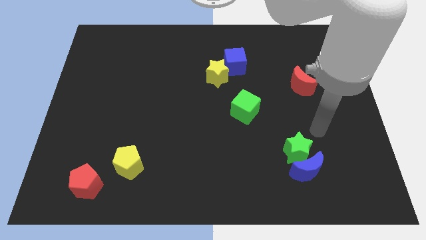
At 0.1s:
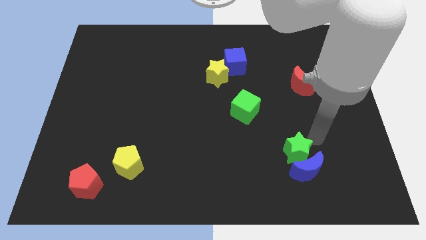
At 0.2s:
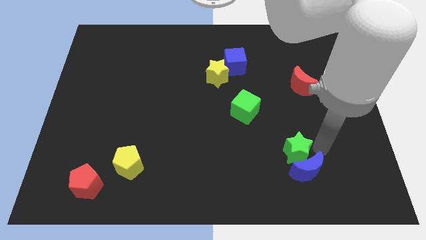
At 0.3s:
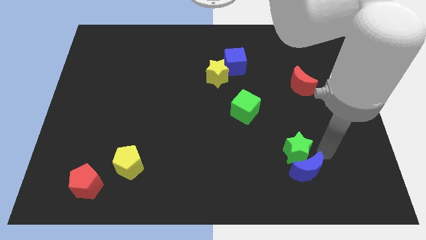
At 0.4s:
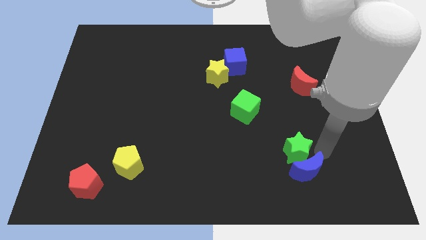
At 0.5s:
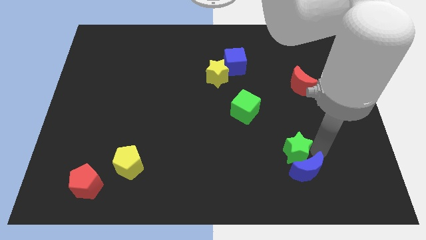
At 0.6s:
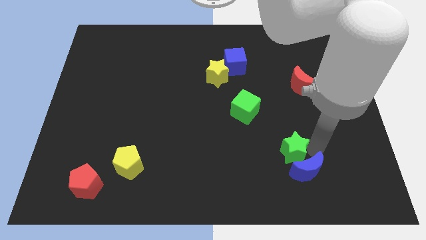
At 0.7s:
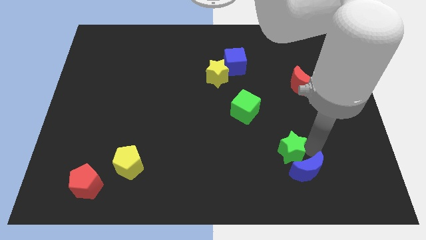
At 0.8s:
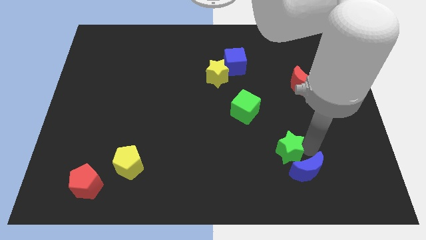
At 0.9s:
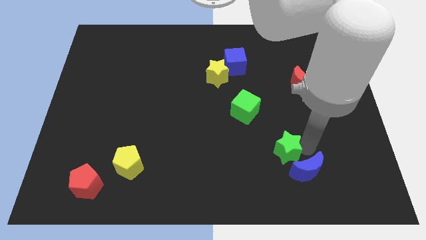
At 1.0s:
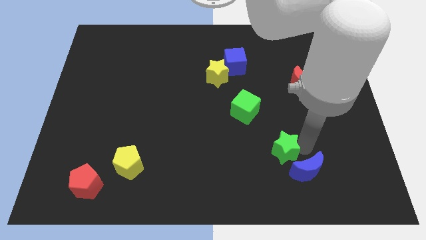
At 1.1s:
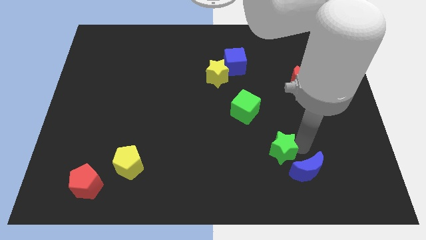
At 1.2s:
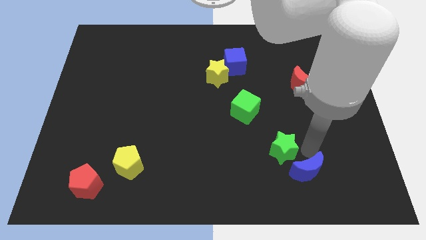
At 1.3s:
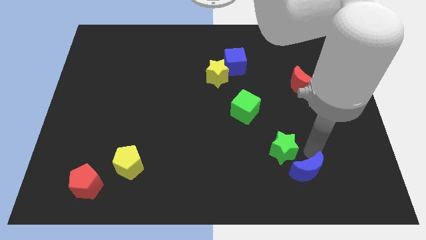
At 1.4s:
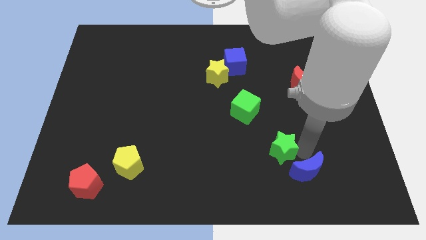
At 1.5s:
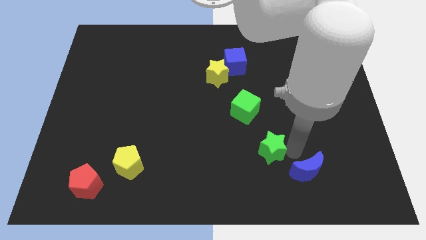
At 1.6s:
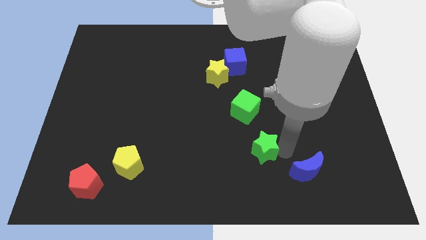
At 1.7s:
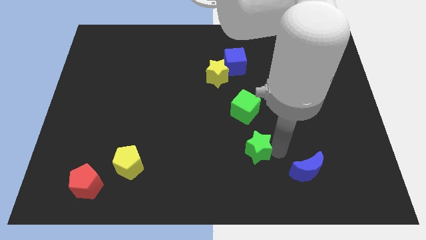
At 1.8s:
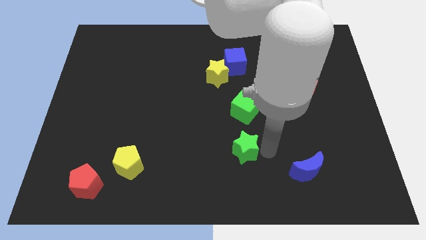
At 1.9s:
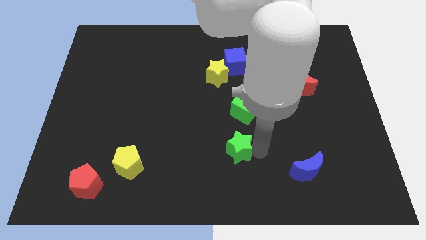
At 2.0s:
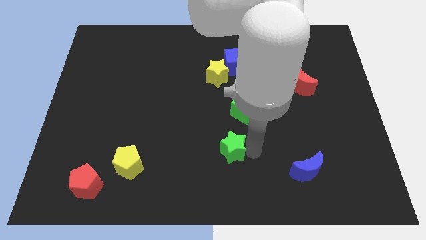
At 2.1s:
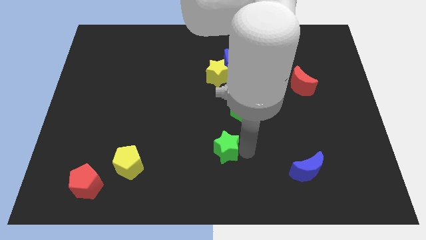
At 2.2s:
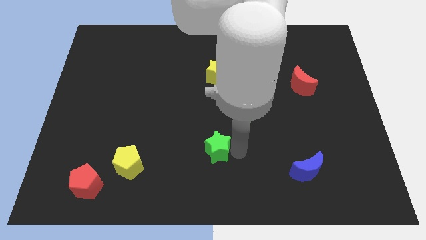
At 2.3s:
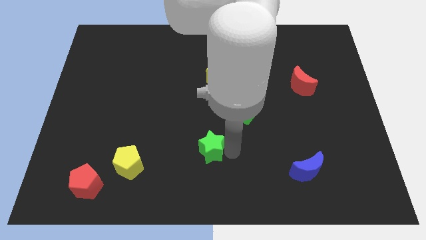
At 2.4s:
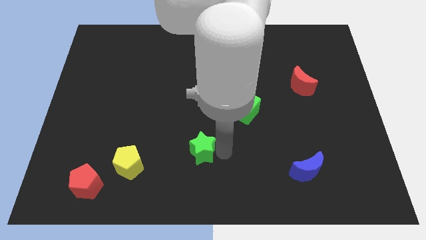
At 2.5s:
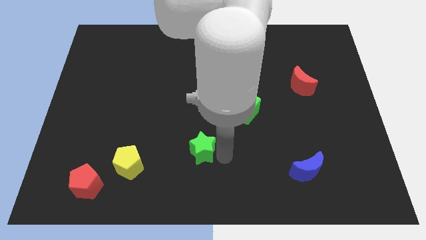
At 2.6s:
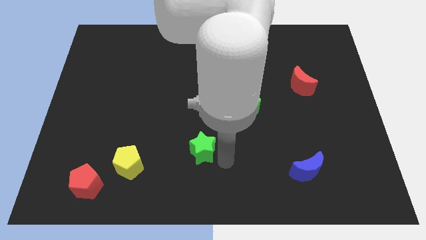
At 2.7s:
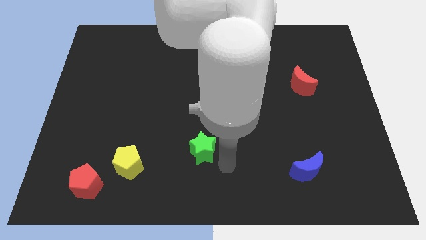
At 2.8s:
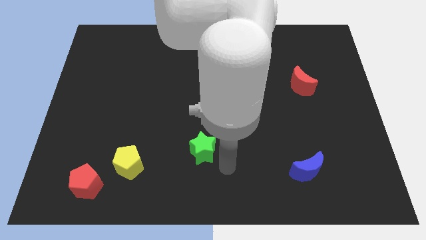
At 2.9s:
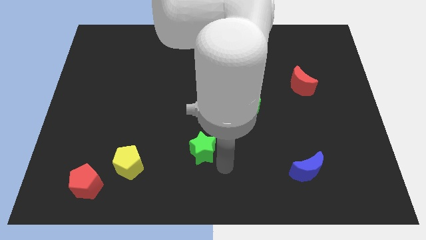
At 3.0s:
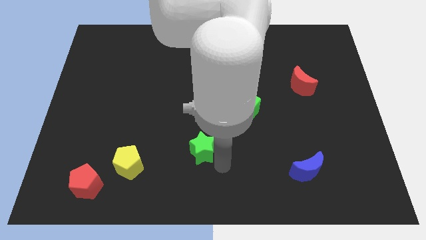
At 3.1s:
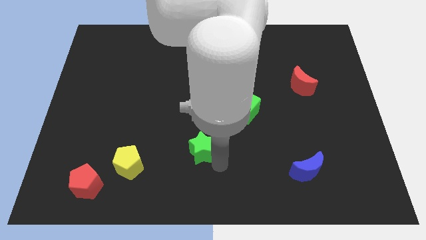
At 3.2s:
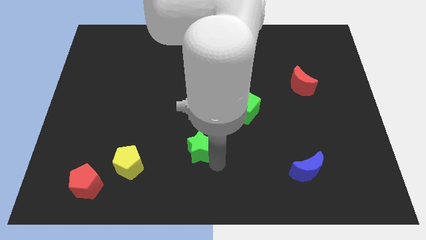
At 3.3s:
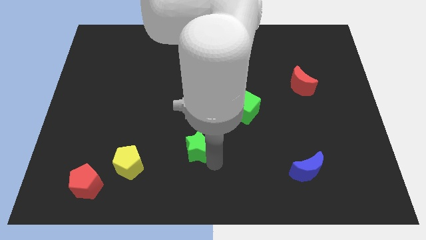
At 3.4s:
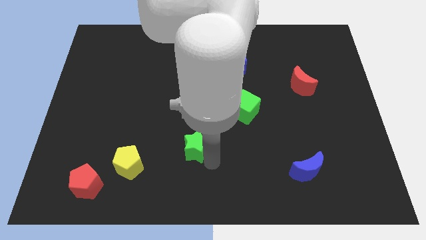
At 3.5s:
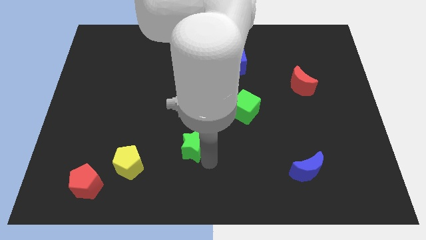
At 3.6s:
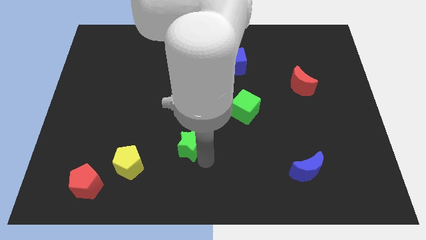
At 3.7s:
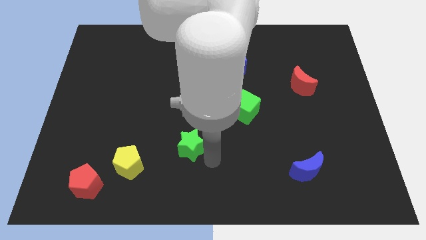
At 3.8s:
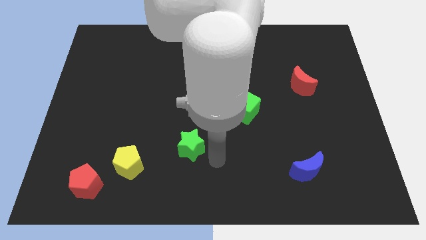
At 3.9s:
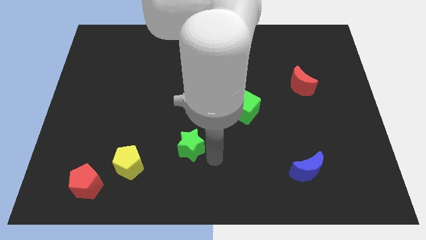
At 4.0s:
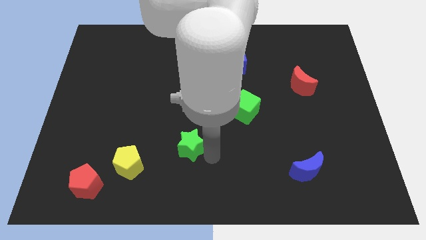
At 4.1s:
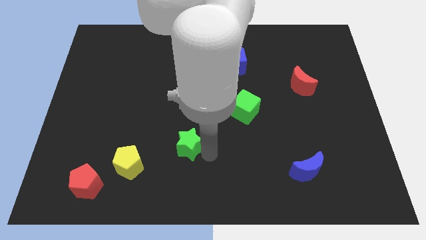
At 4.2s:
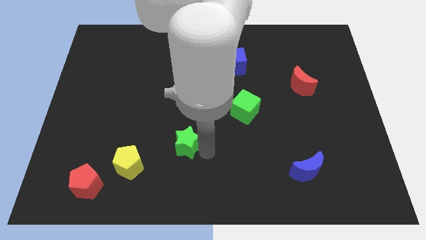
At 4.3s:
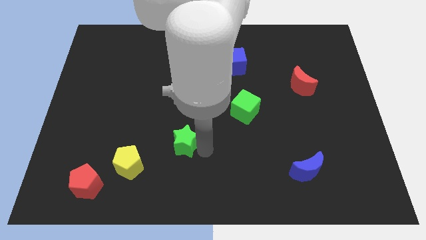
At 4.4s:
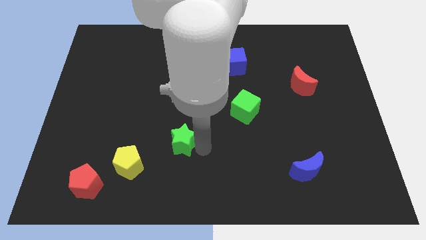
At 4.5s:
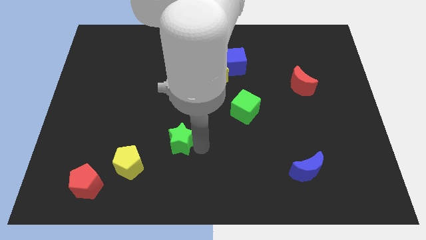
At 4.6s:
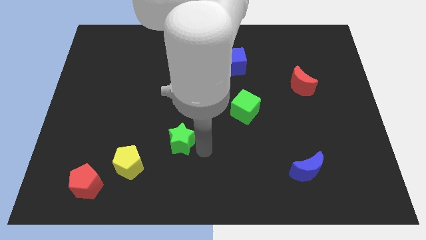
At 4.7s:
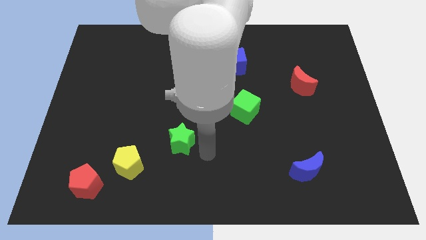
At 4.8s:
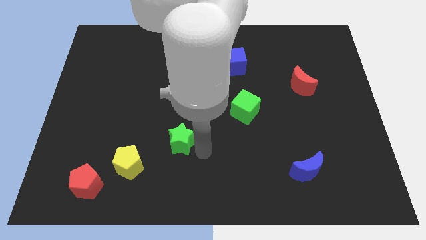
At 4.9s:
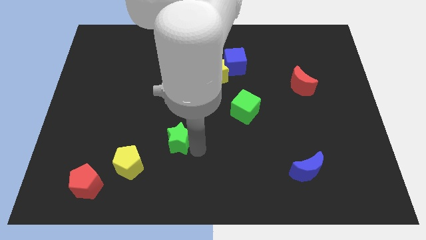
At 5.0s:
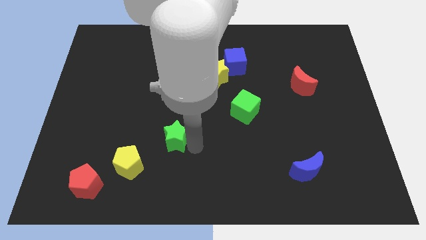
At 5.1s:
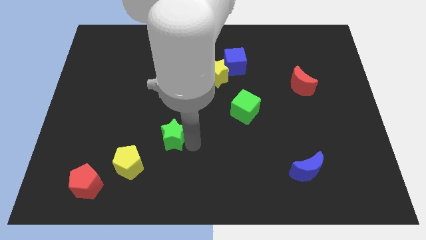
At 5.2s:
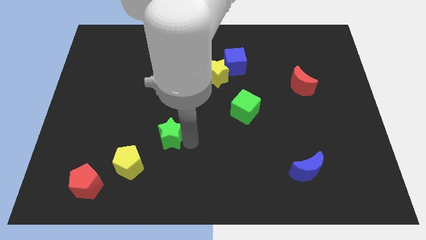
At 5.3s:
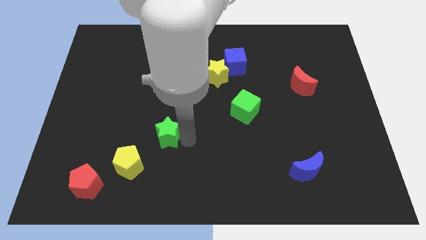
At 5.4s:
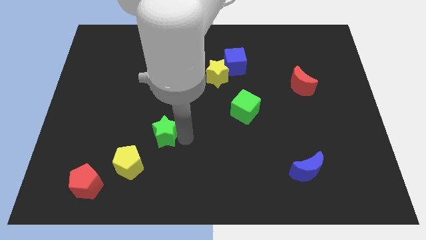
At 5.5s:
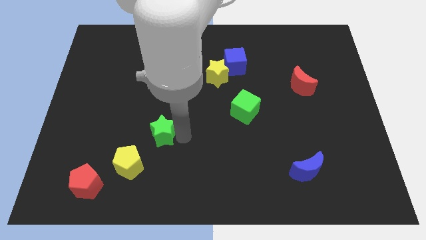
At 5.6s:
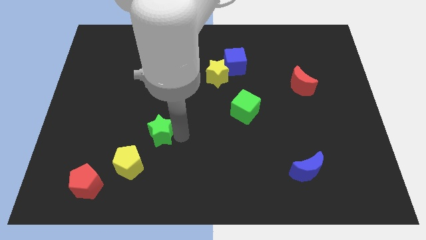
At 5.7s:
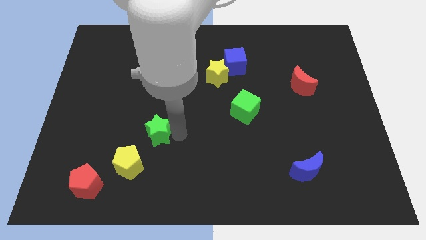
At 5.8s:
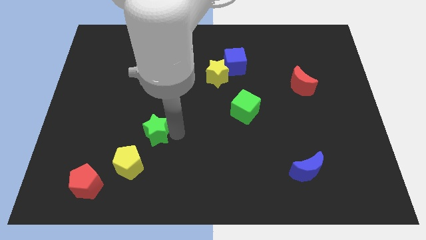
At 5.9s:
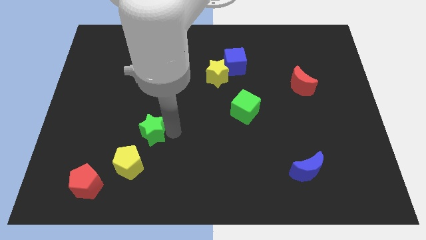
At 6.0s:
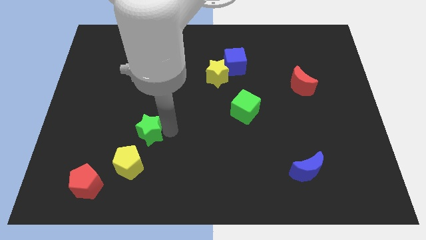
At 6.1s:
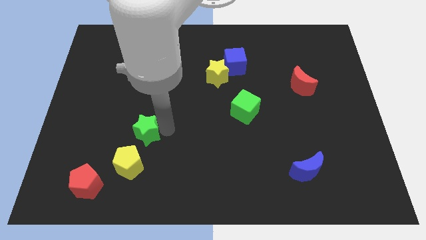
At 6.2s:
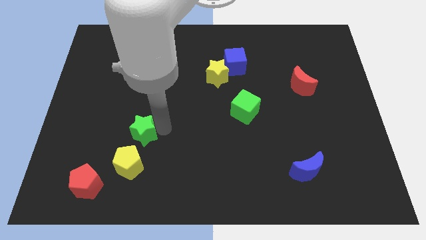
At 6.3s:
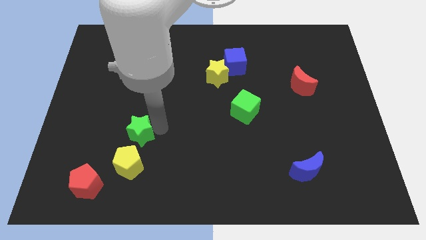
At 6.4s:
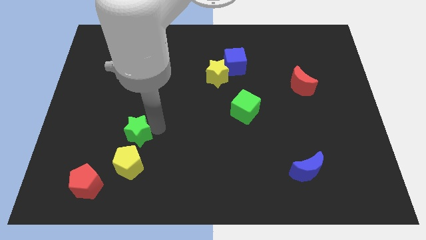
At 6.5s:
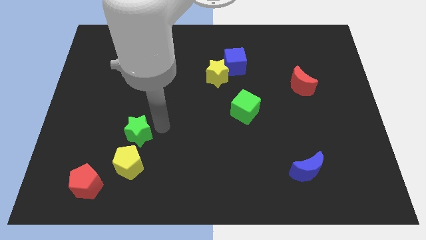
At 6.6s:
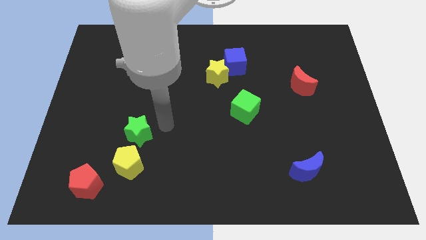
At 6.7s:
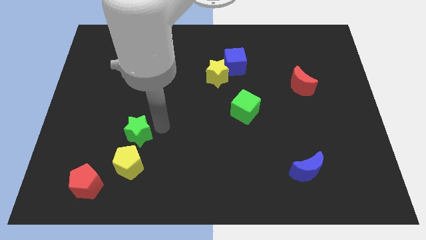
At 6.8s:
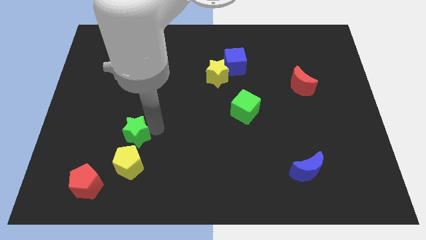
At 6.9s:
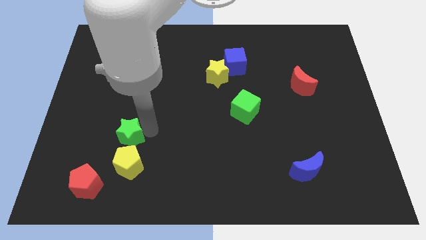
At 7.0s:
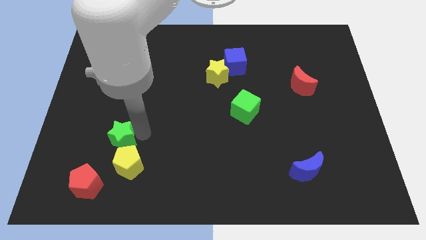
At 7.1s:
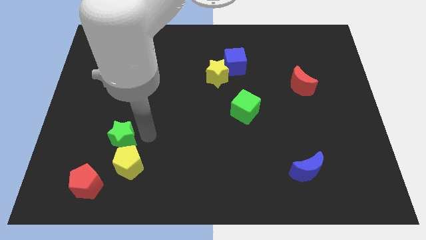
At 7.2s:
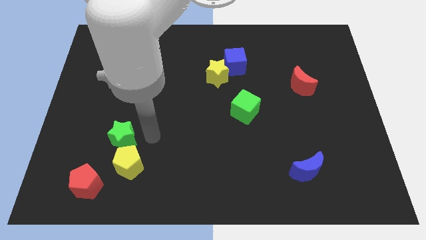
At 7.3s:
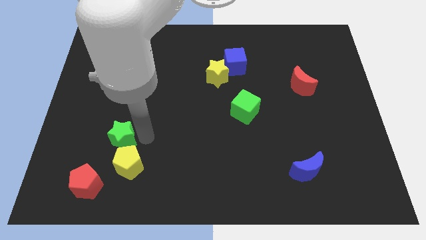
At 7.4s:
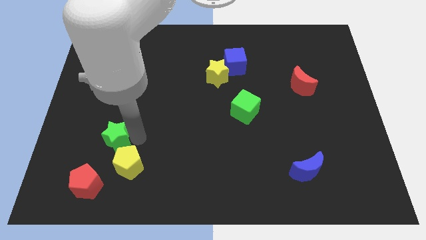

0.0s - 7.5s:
slide the green star above the red pentagon

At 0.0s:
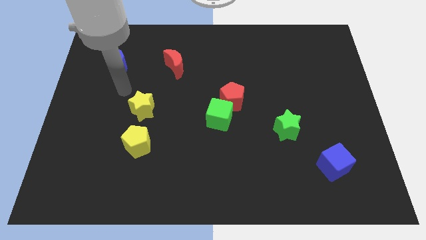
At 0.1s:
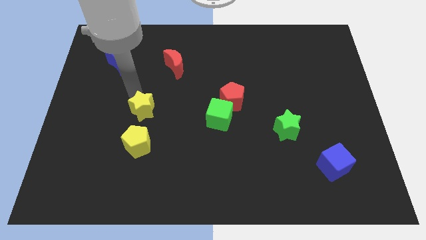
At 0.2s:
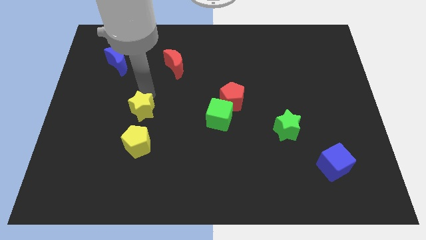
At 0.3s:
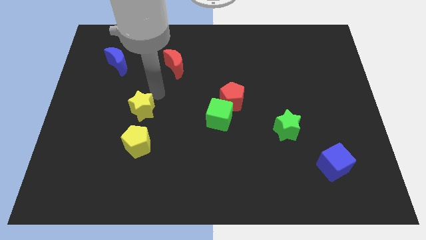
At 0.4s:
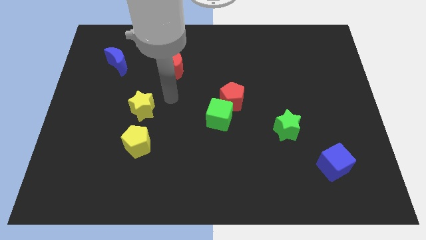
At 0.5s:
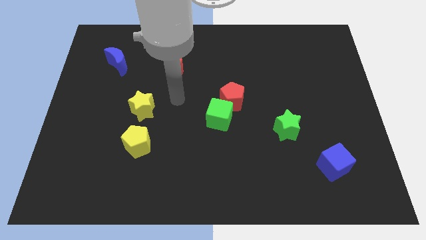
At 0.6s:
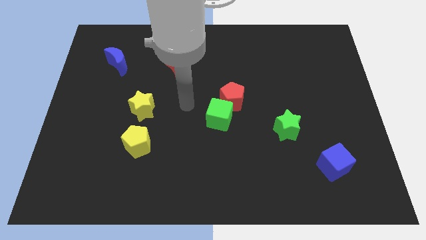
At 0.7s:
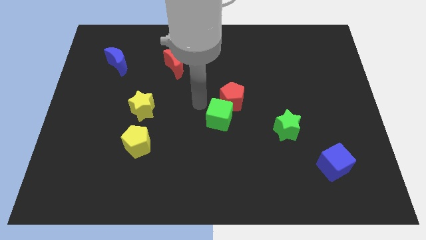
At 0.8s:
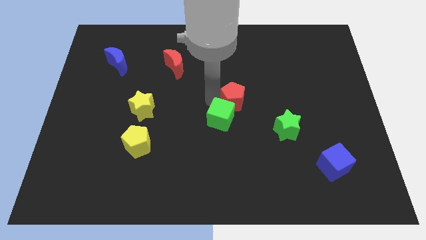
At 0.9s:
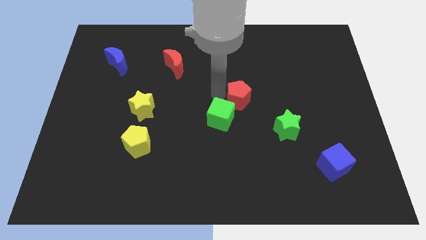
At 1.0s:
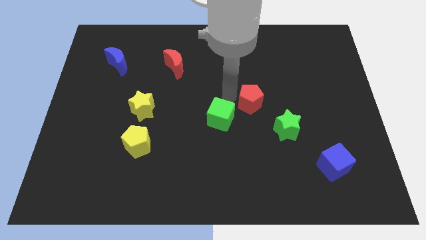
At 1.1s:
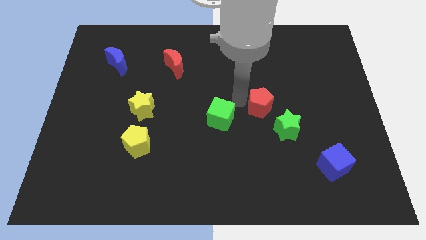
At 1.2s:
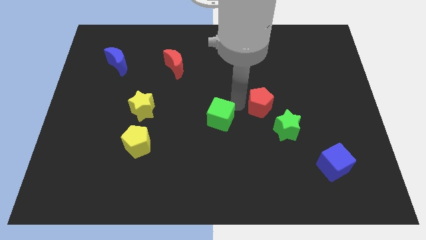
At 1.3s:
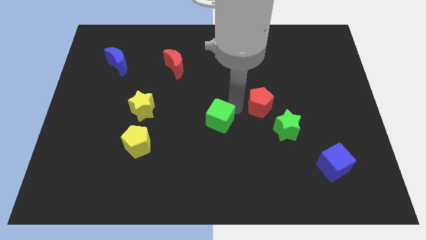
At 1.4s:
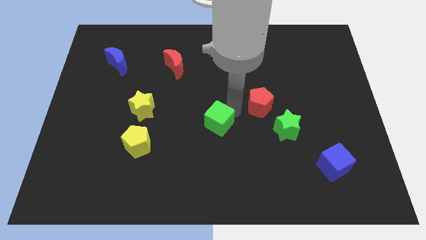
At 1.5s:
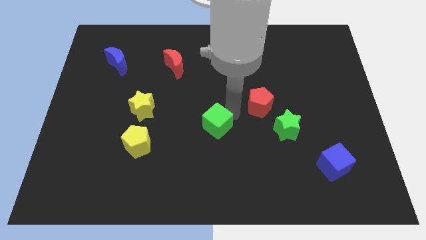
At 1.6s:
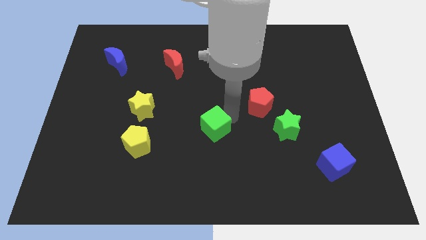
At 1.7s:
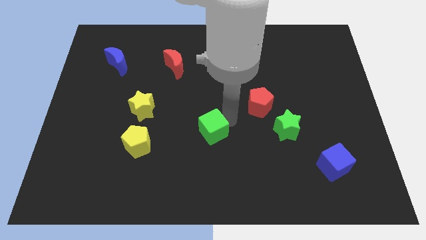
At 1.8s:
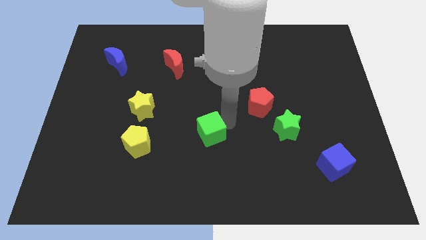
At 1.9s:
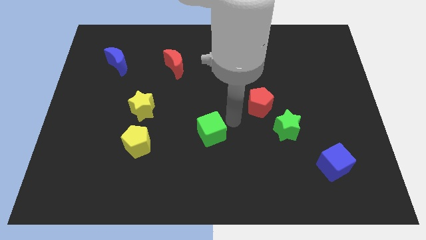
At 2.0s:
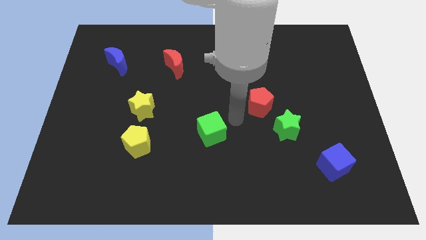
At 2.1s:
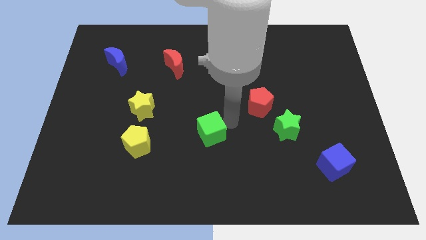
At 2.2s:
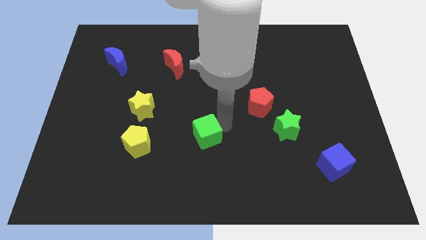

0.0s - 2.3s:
put the green cube just right of the yellow pentagon
